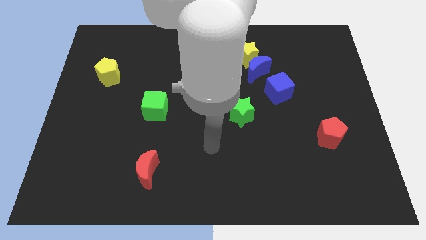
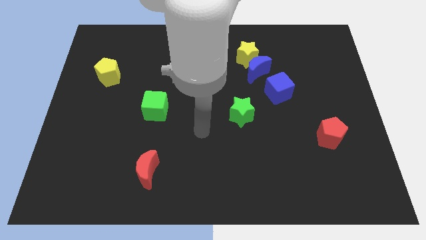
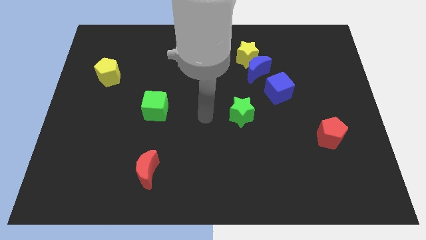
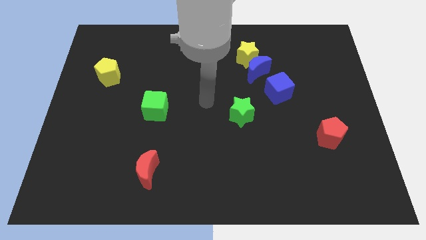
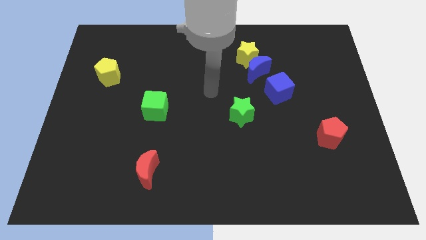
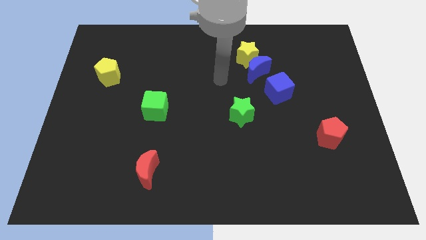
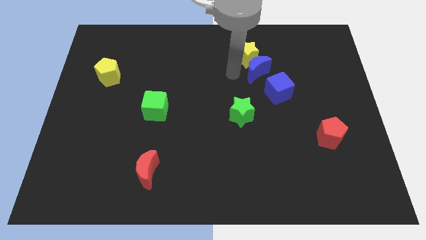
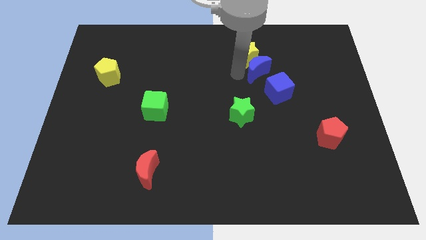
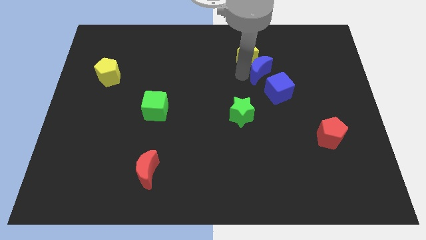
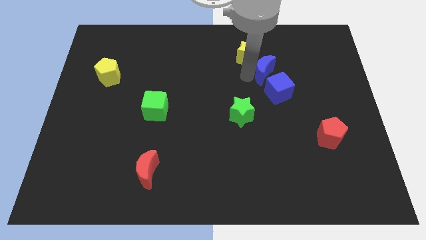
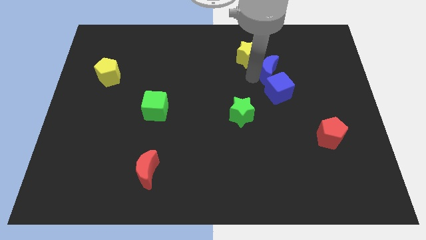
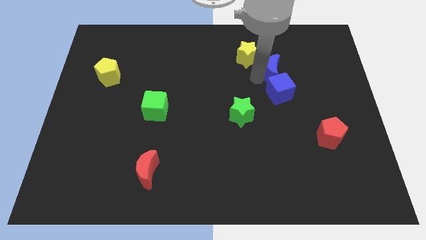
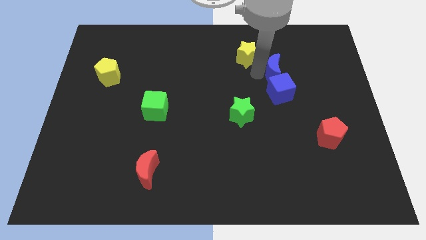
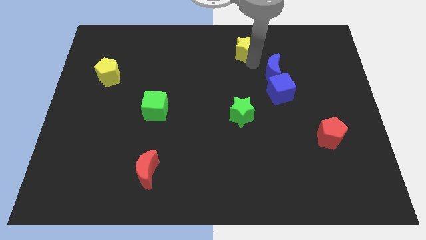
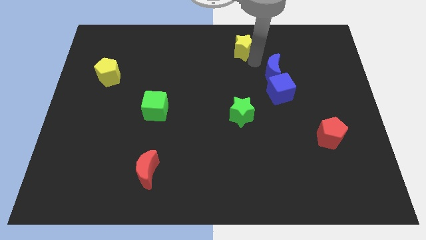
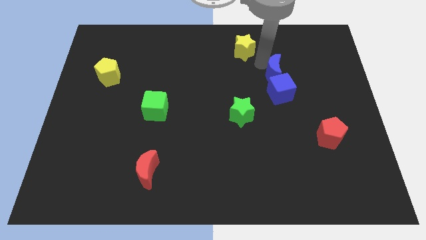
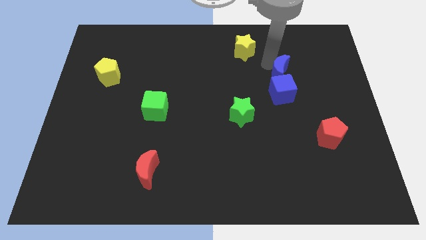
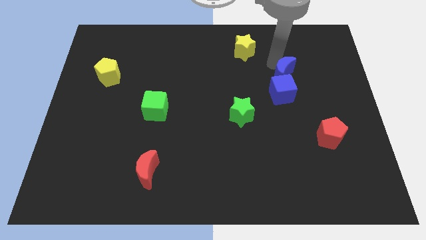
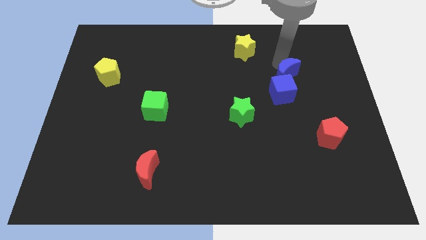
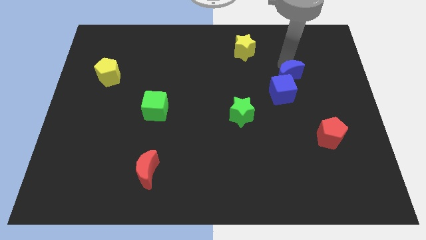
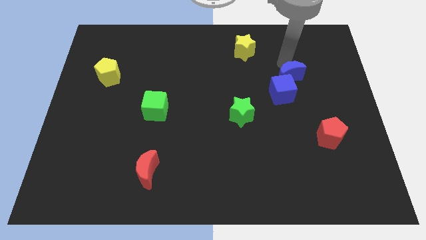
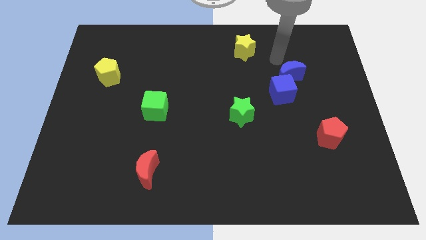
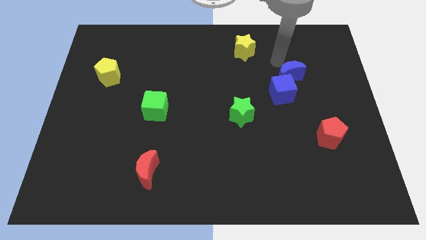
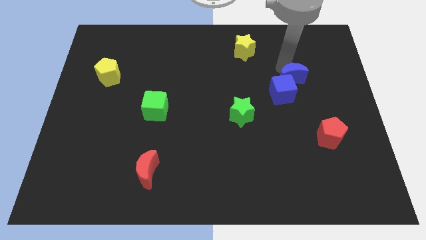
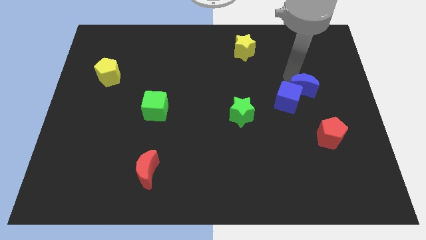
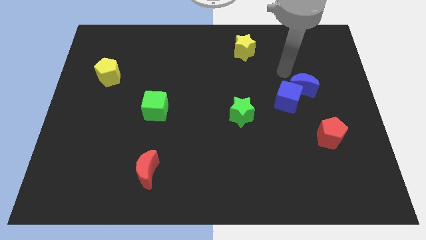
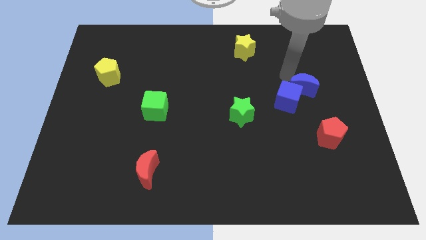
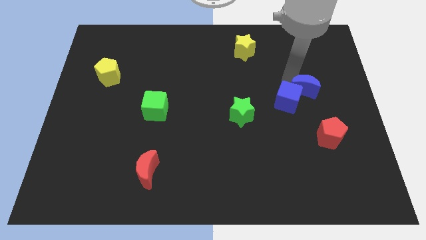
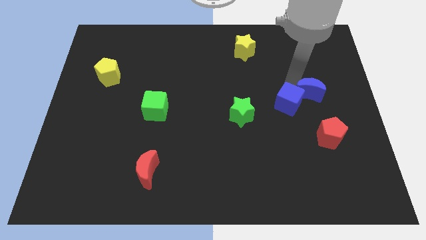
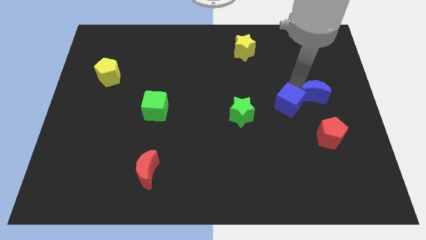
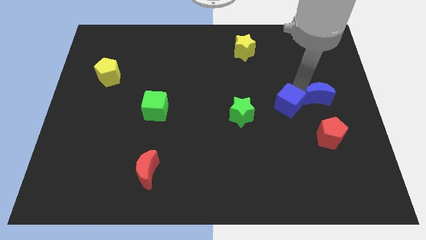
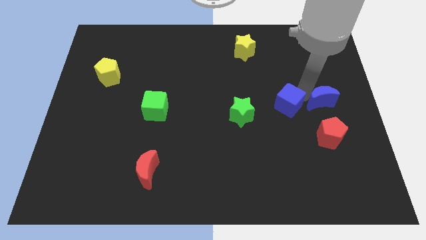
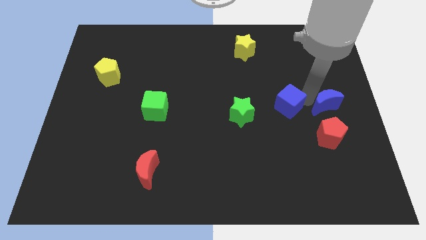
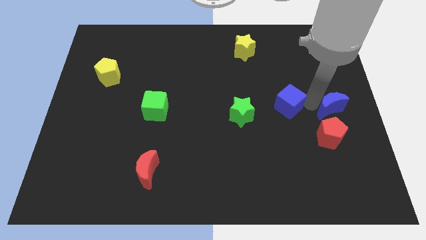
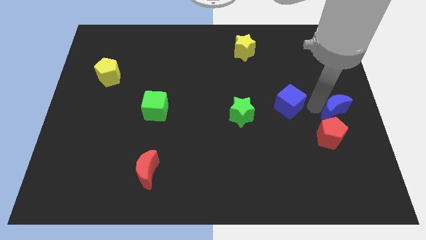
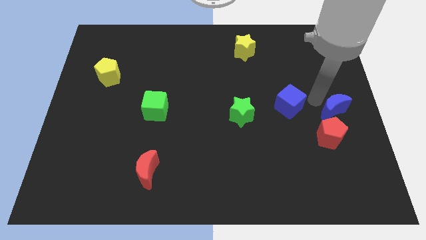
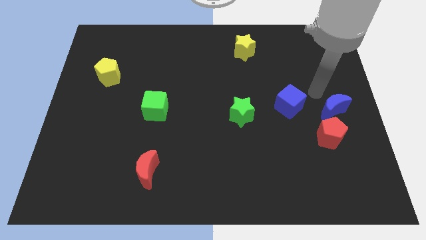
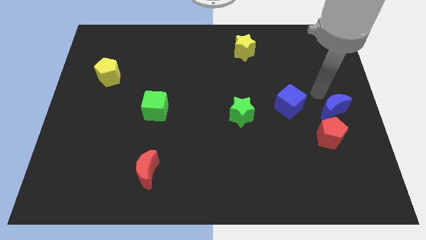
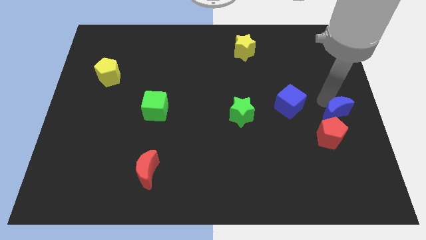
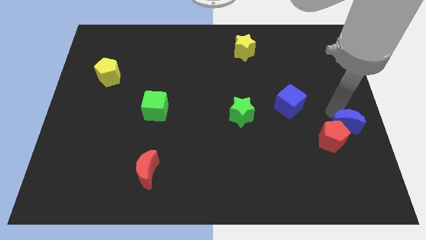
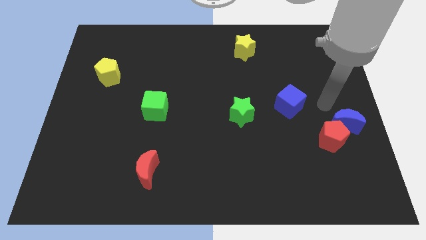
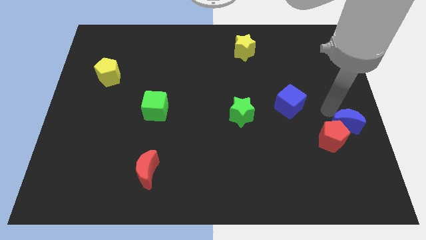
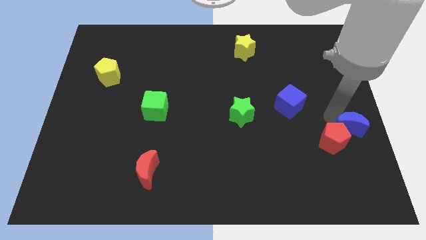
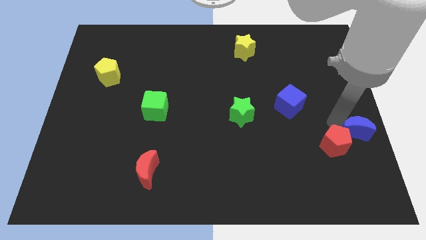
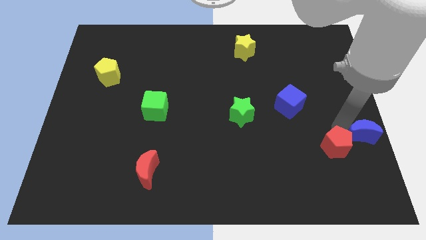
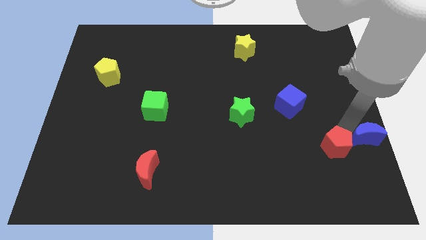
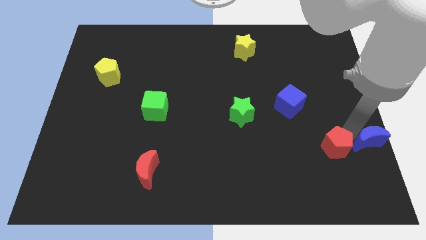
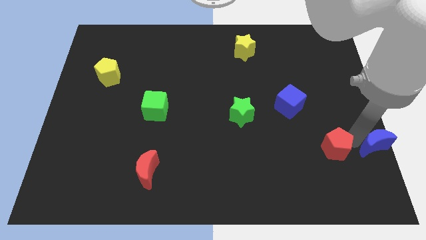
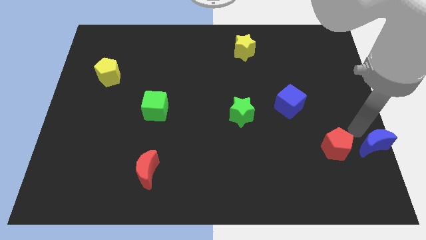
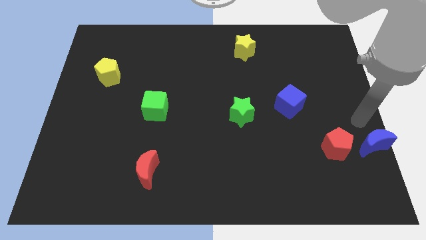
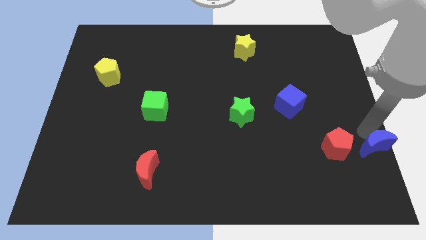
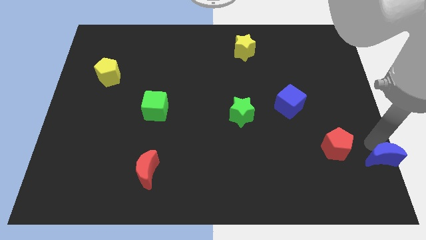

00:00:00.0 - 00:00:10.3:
push the blue moon to the bottom right of the board

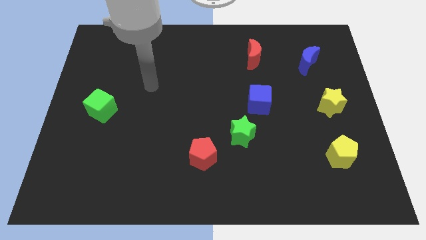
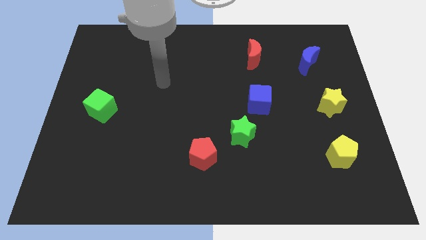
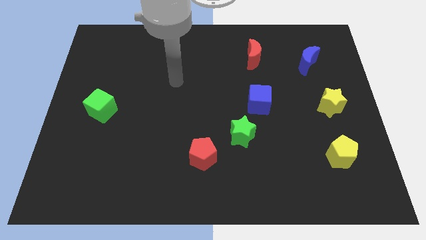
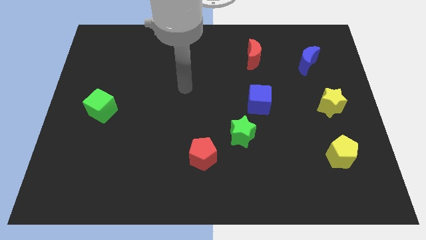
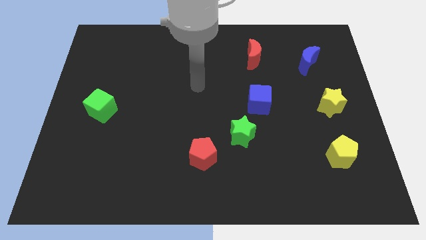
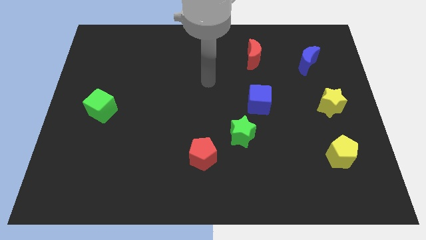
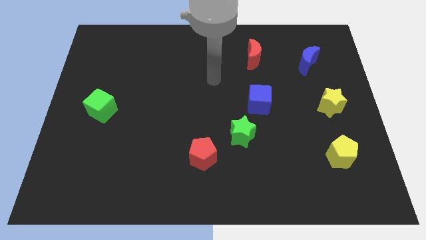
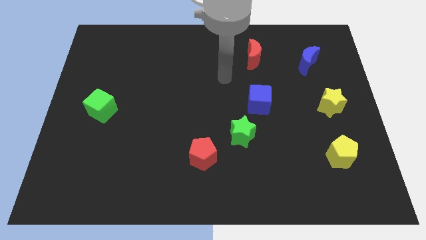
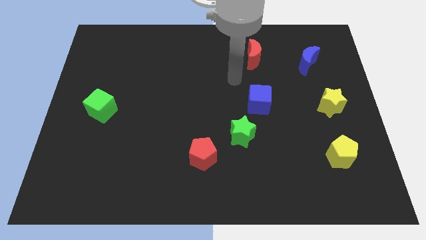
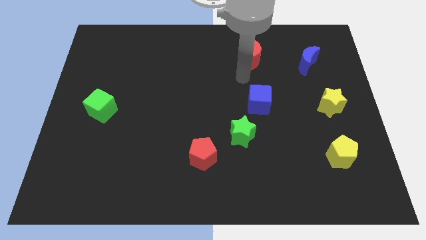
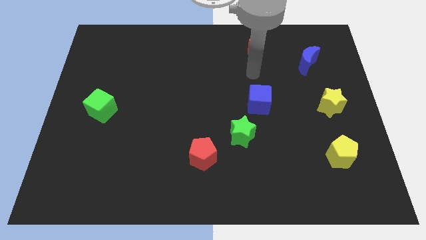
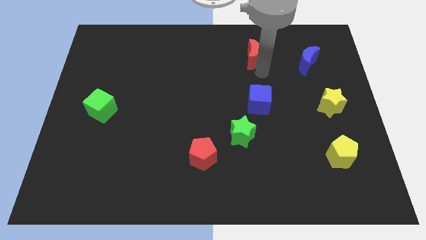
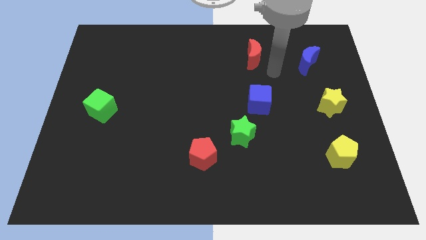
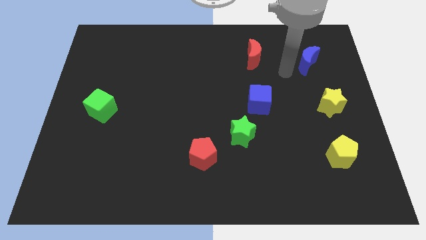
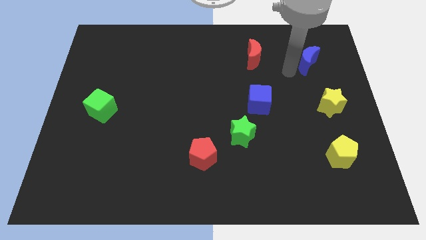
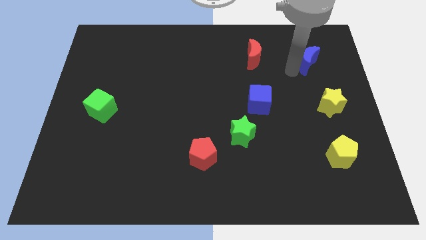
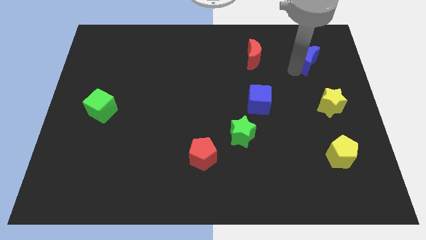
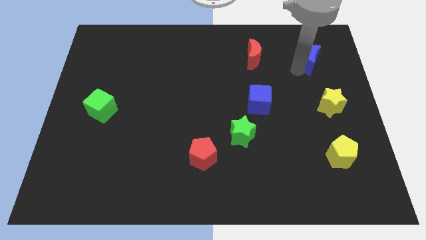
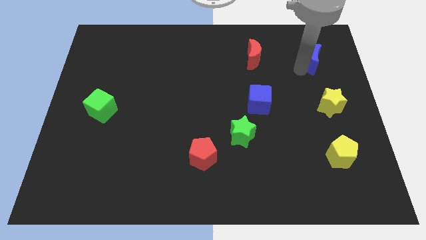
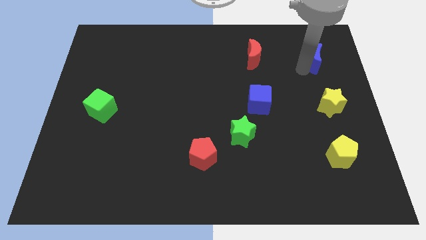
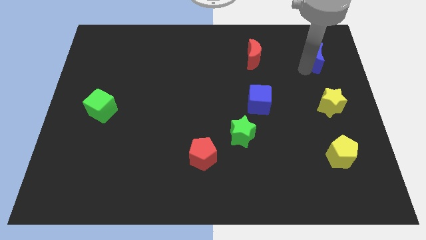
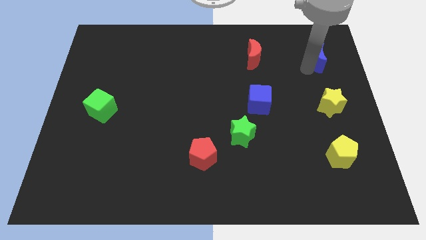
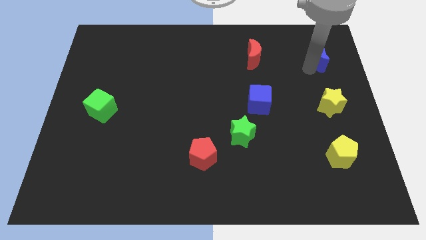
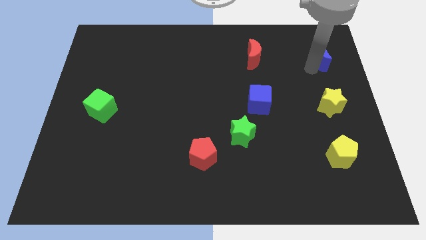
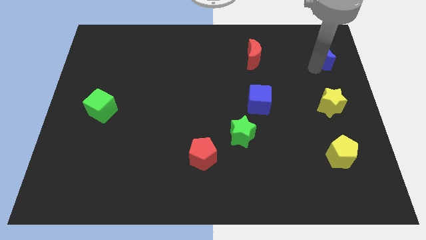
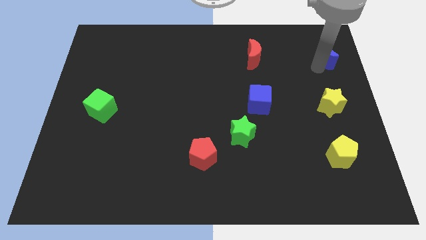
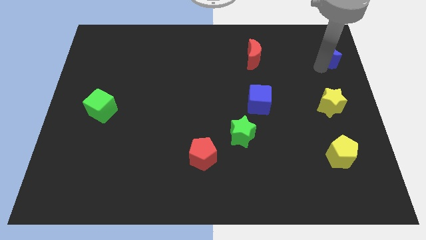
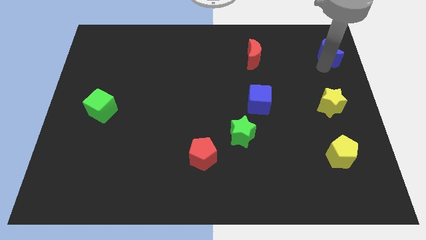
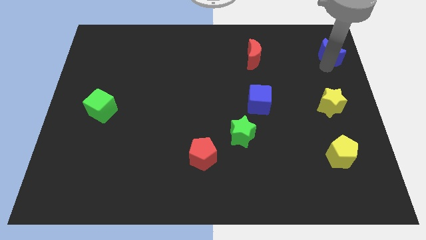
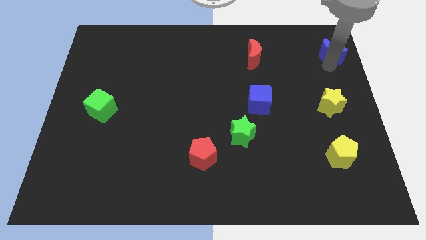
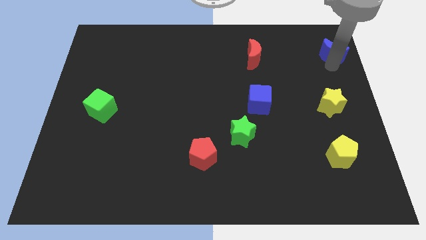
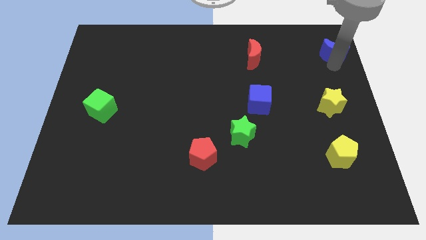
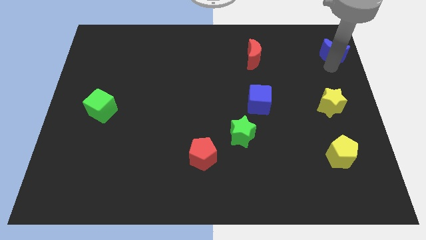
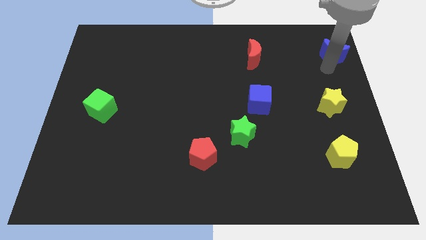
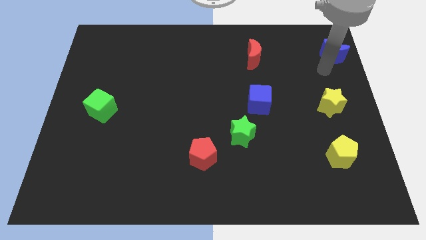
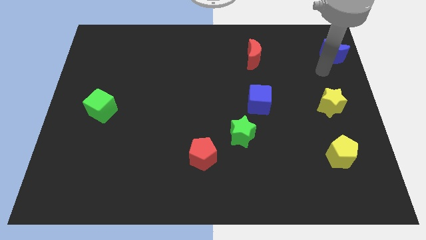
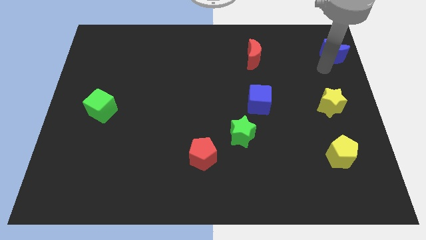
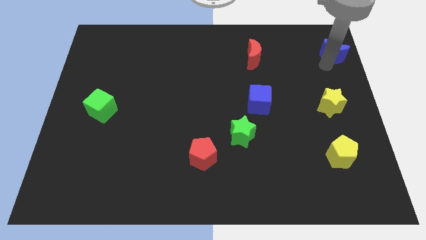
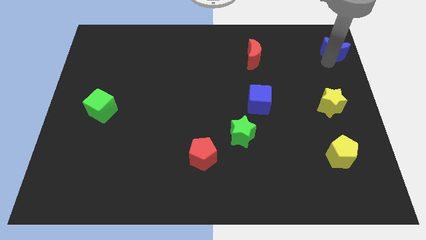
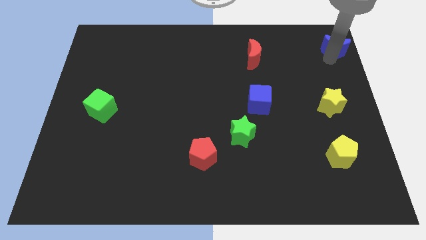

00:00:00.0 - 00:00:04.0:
push the blue moon to the top right corner
